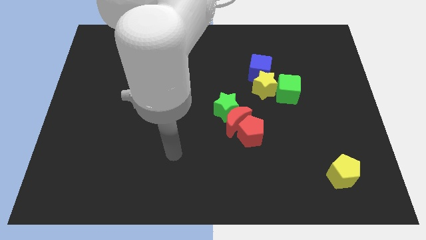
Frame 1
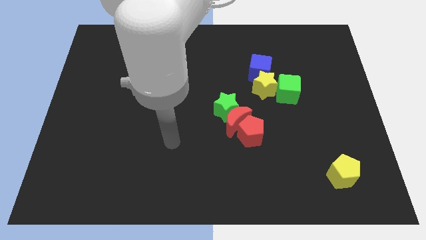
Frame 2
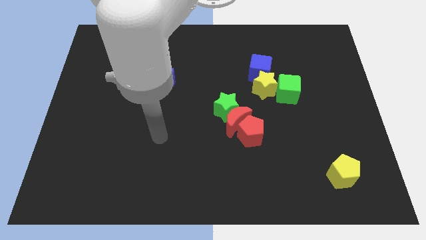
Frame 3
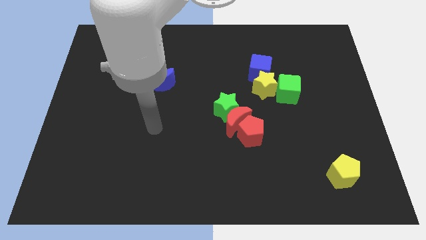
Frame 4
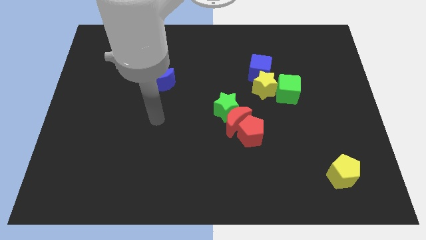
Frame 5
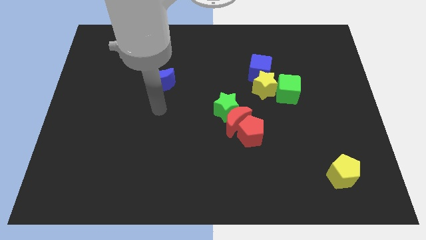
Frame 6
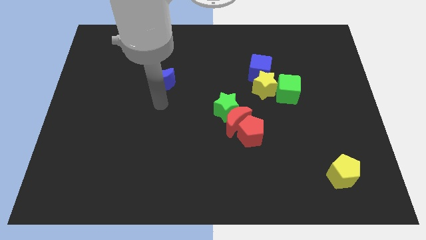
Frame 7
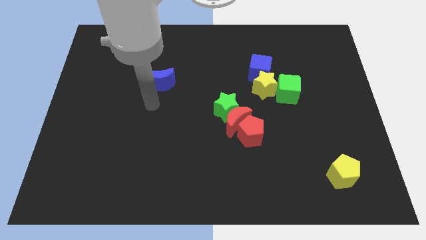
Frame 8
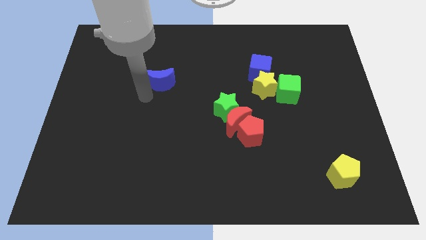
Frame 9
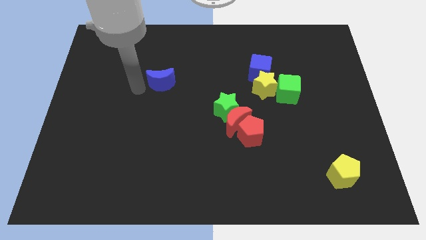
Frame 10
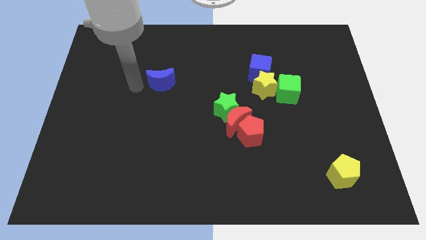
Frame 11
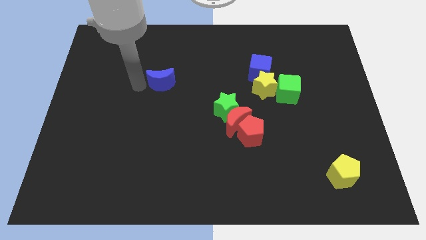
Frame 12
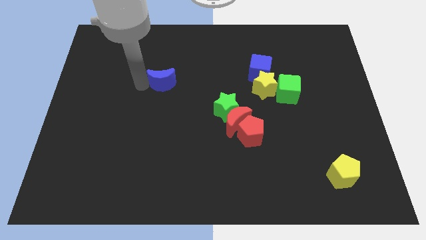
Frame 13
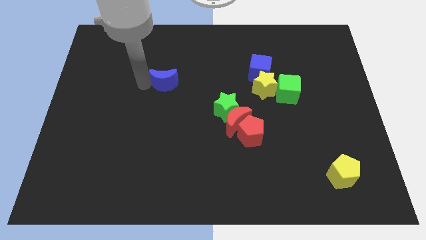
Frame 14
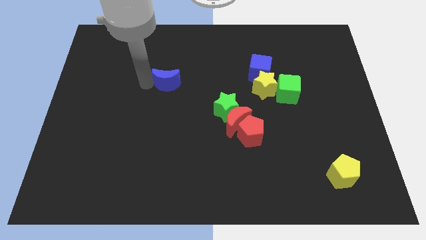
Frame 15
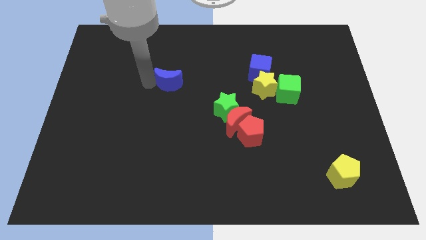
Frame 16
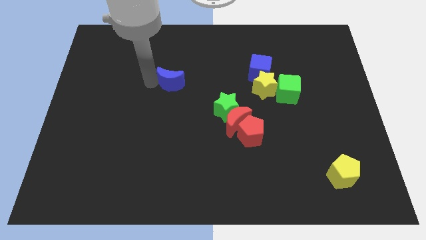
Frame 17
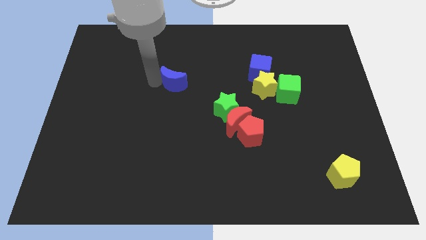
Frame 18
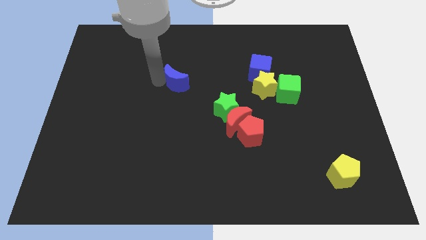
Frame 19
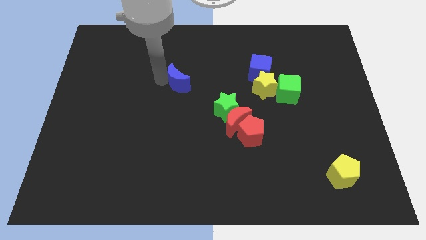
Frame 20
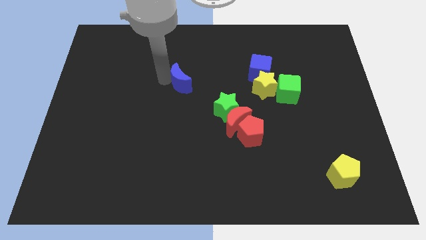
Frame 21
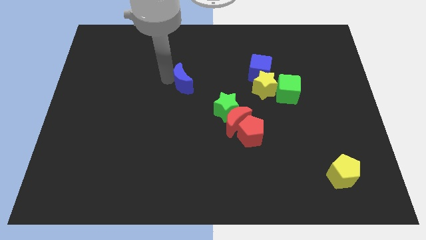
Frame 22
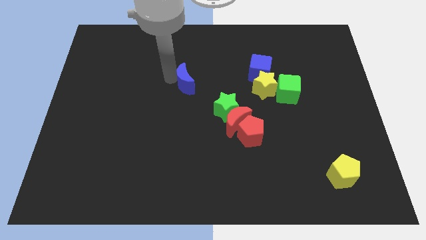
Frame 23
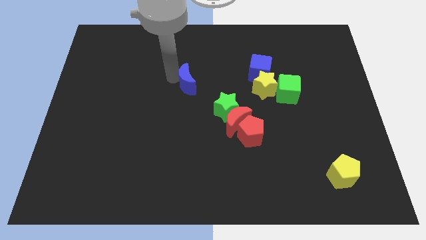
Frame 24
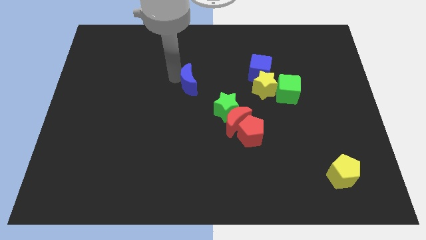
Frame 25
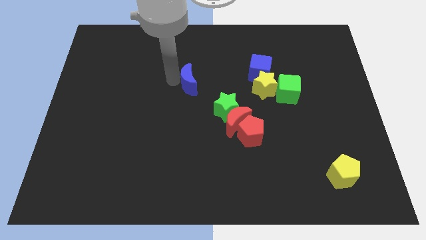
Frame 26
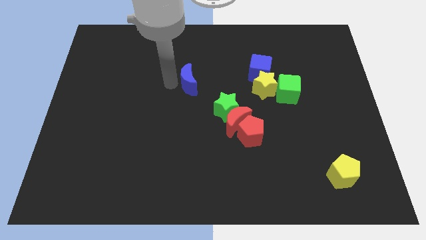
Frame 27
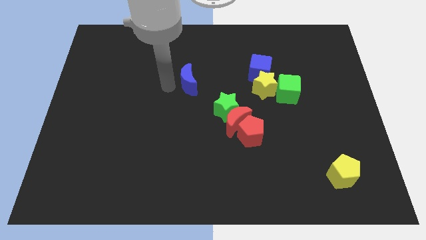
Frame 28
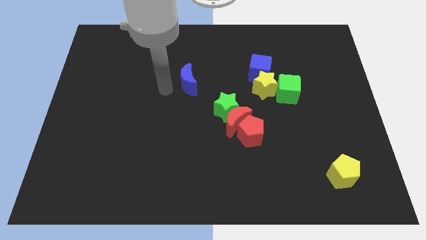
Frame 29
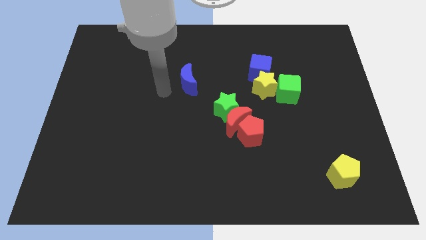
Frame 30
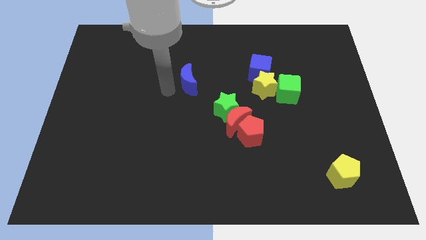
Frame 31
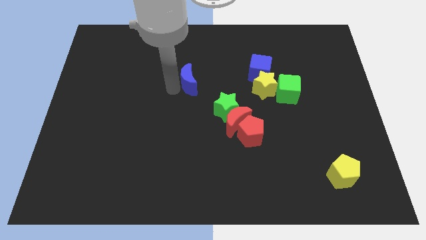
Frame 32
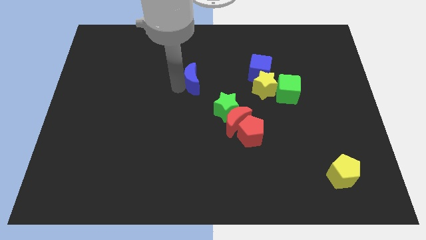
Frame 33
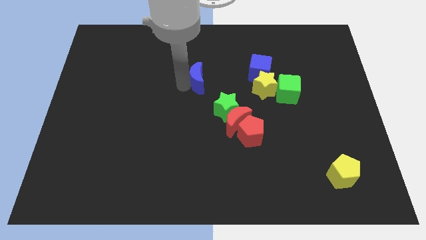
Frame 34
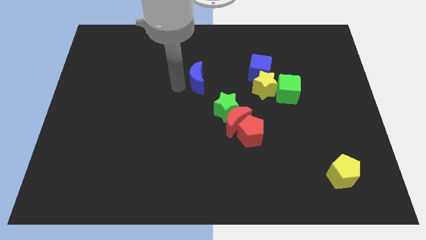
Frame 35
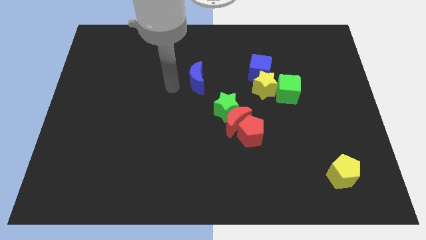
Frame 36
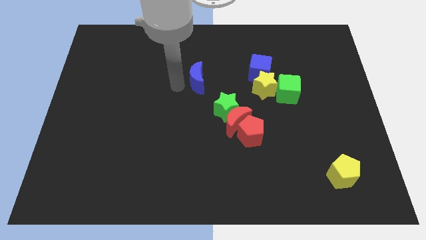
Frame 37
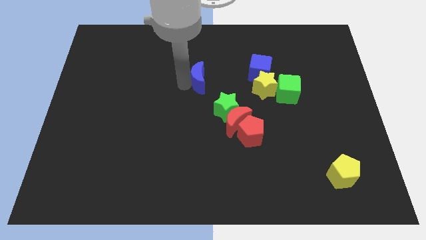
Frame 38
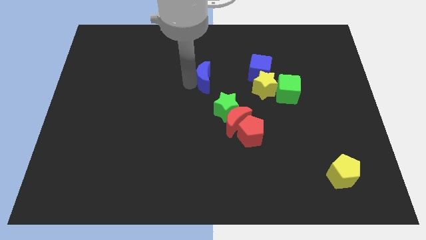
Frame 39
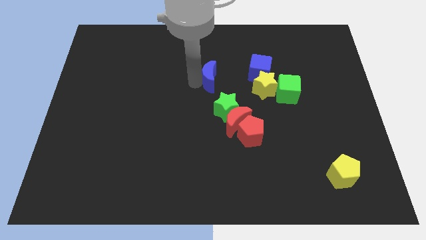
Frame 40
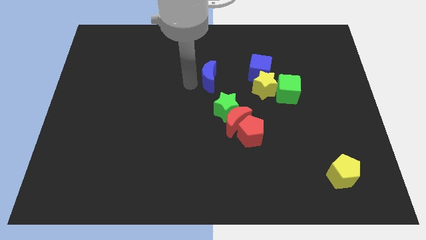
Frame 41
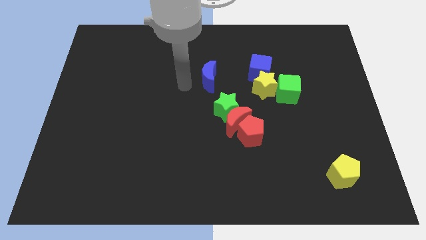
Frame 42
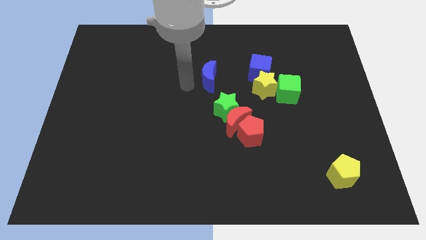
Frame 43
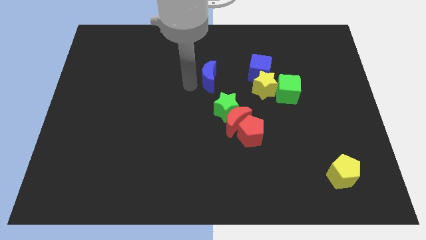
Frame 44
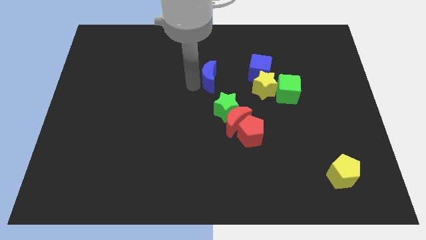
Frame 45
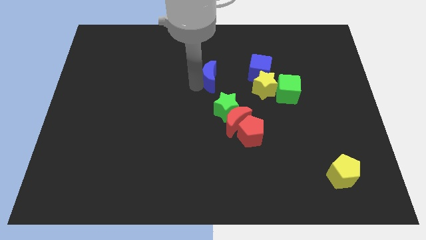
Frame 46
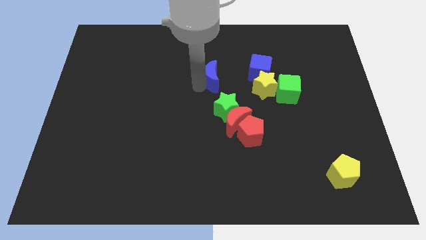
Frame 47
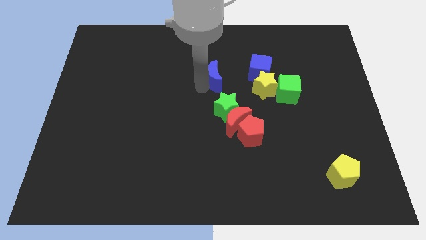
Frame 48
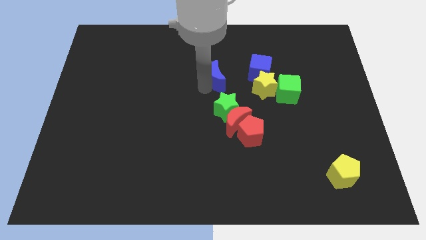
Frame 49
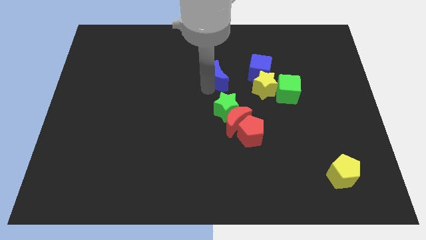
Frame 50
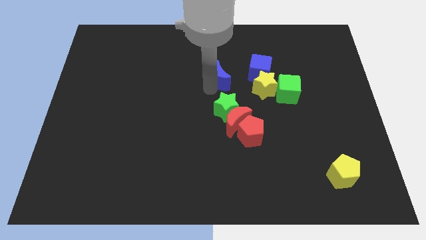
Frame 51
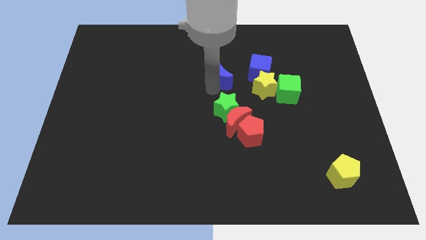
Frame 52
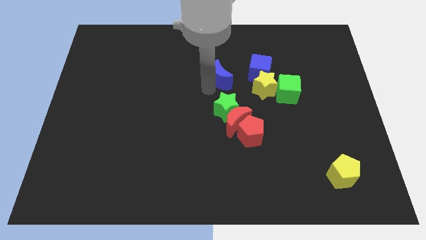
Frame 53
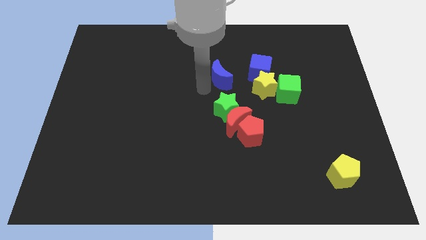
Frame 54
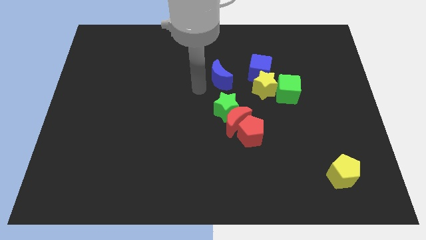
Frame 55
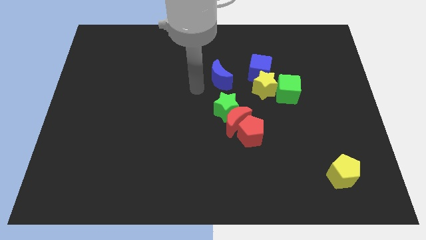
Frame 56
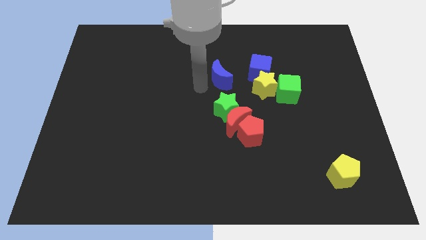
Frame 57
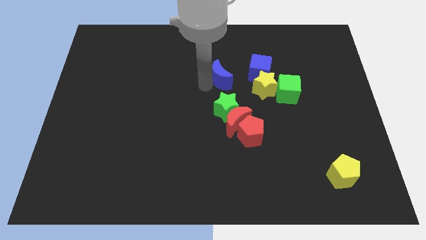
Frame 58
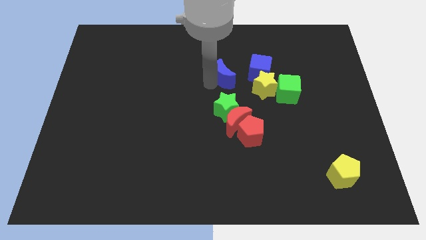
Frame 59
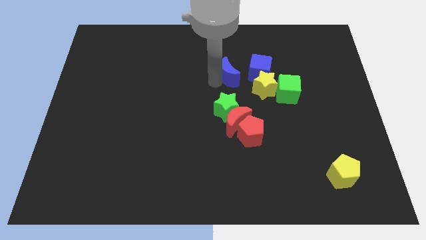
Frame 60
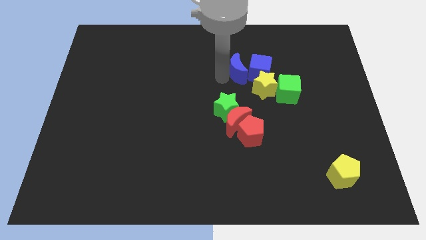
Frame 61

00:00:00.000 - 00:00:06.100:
push the blue moon next to the blue cube
